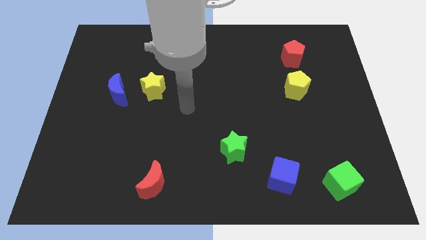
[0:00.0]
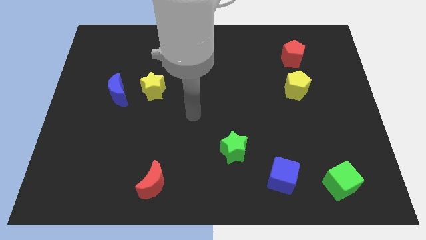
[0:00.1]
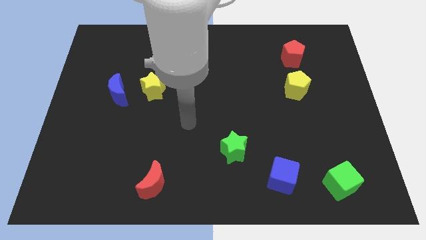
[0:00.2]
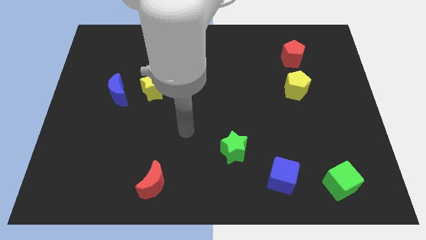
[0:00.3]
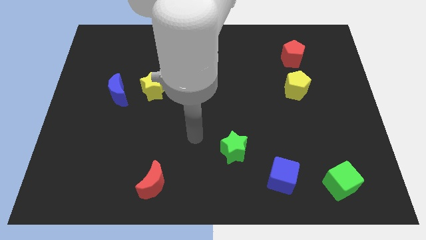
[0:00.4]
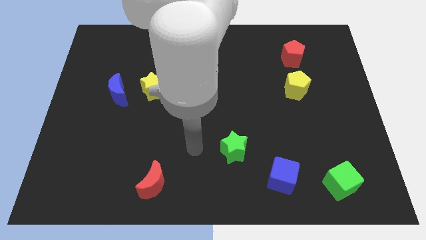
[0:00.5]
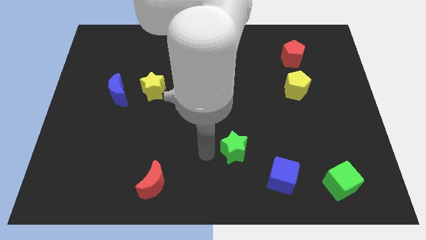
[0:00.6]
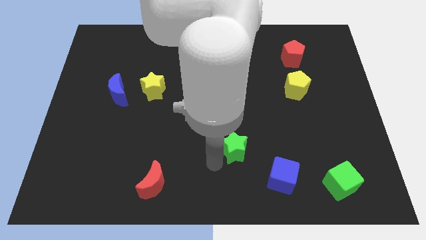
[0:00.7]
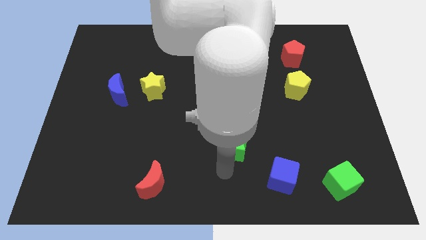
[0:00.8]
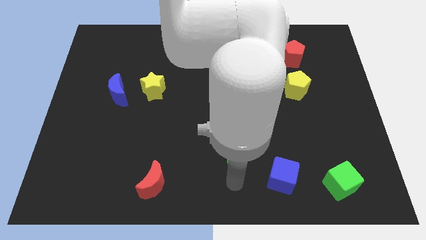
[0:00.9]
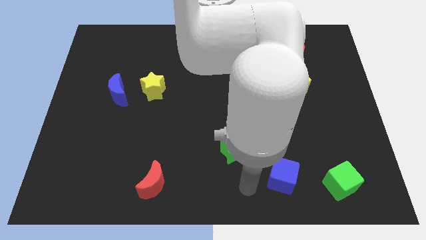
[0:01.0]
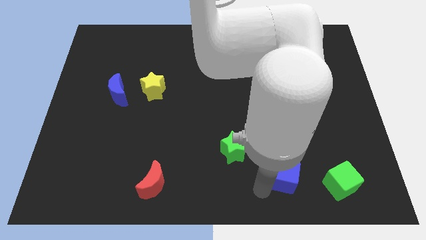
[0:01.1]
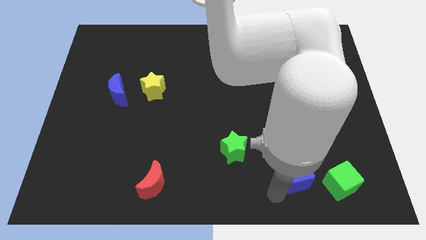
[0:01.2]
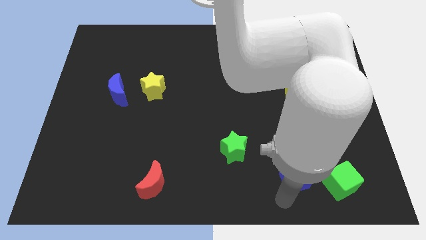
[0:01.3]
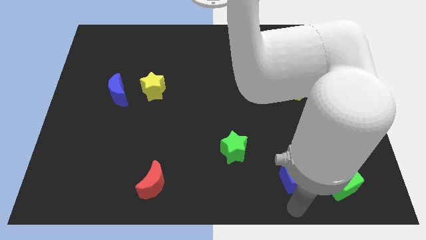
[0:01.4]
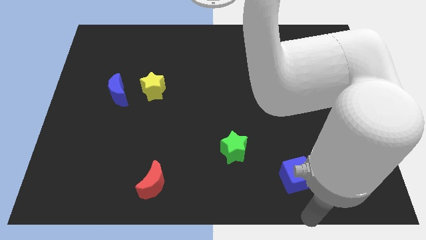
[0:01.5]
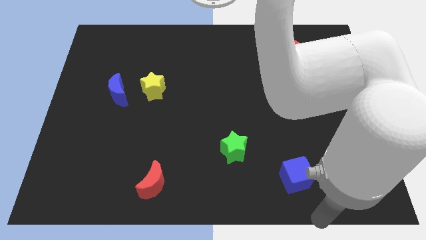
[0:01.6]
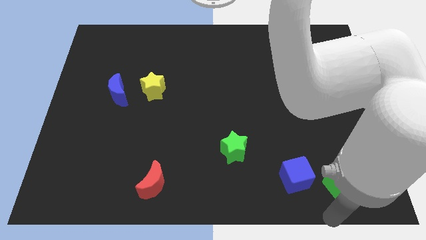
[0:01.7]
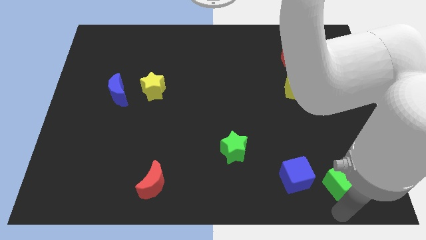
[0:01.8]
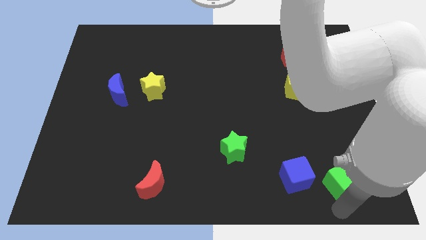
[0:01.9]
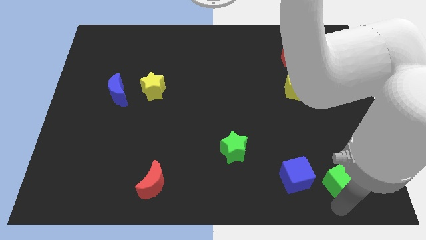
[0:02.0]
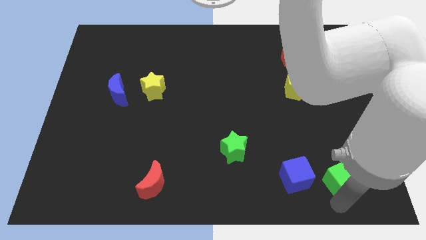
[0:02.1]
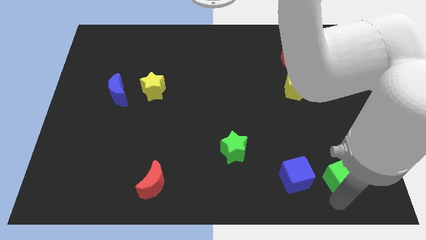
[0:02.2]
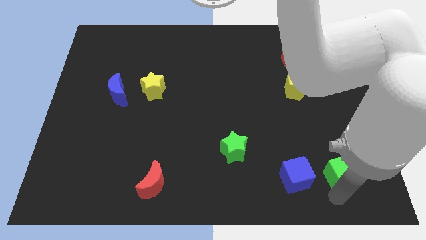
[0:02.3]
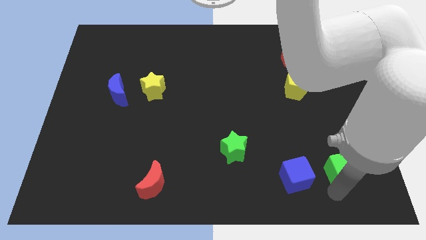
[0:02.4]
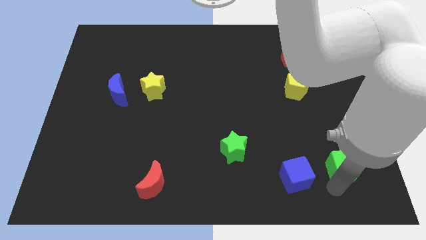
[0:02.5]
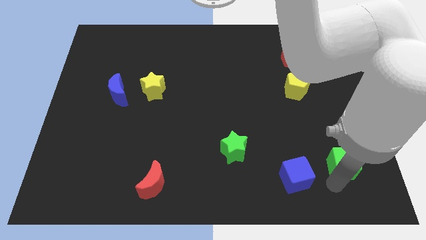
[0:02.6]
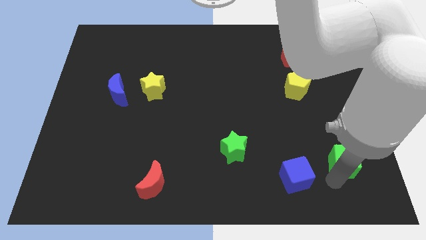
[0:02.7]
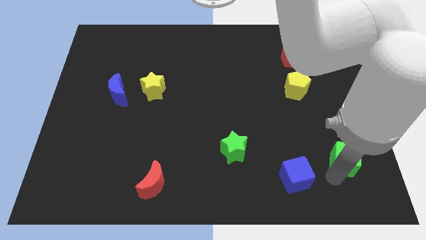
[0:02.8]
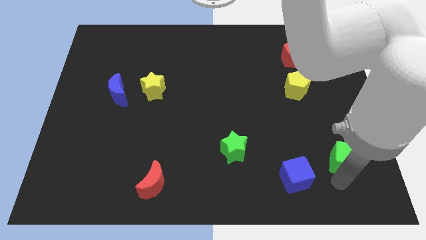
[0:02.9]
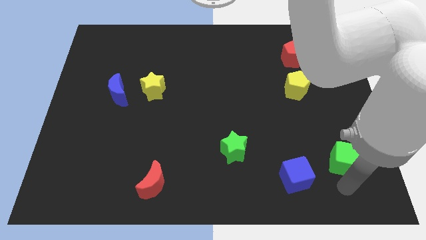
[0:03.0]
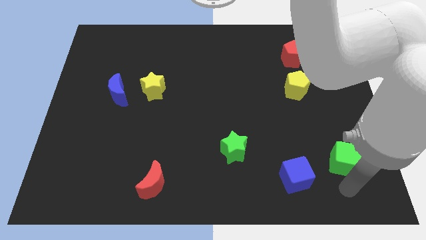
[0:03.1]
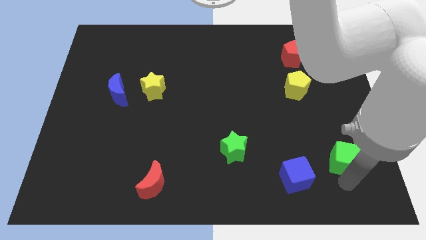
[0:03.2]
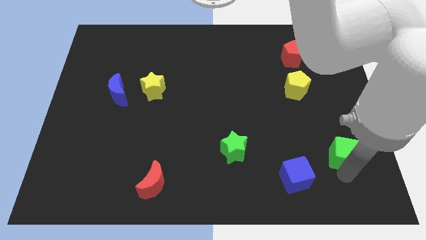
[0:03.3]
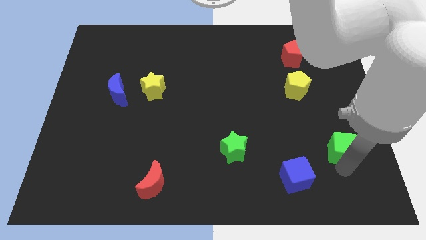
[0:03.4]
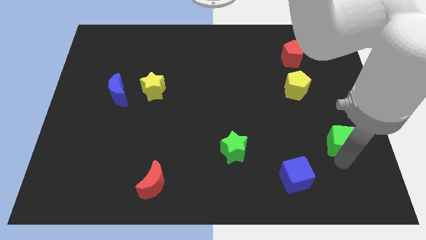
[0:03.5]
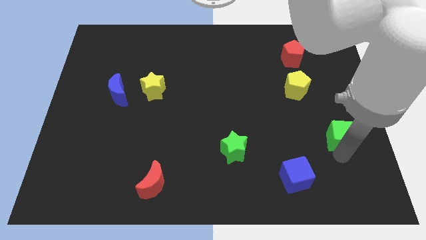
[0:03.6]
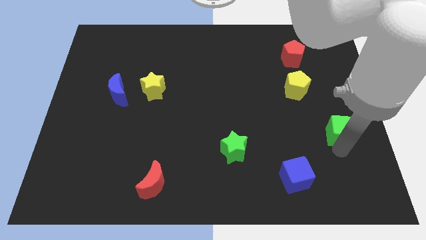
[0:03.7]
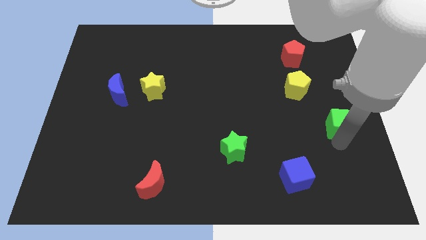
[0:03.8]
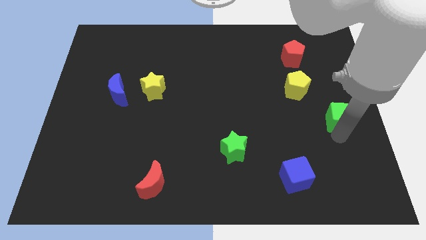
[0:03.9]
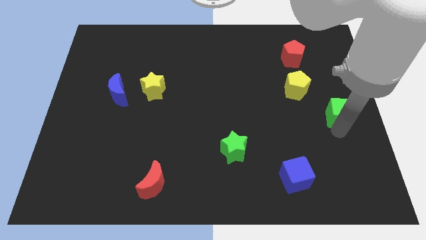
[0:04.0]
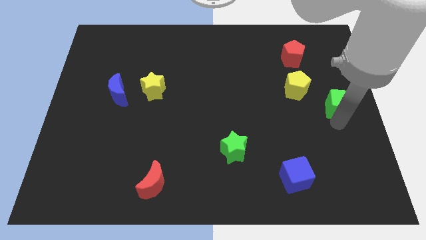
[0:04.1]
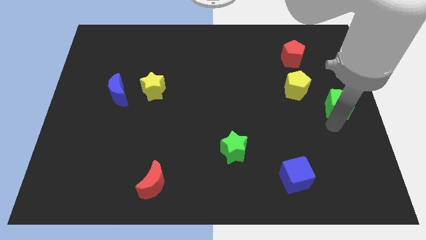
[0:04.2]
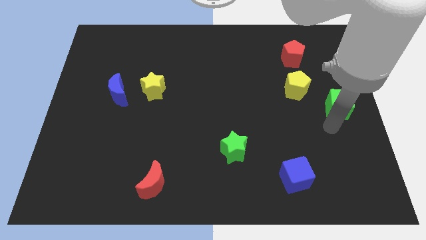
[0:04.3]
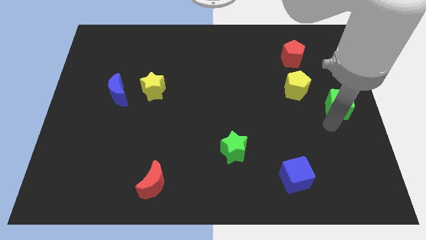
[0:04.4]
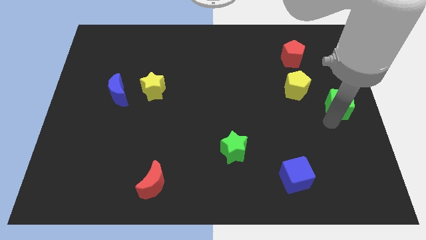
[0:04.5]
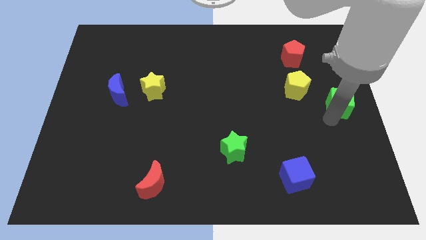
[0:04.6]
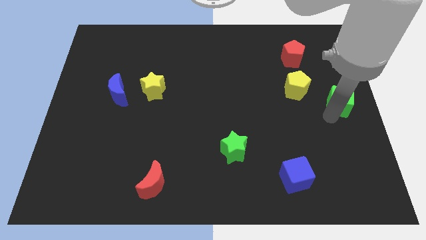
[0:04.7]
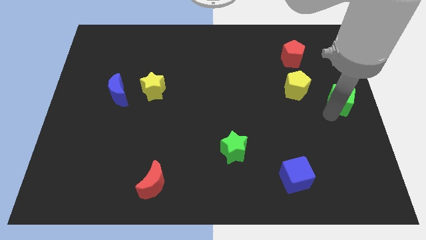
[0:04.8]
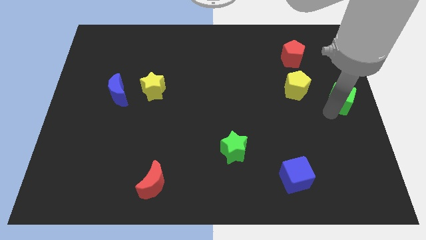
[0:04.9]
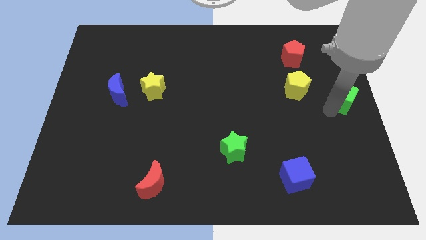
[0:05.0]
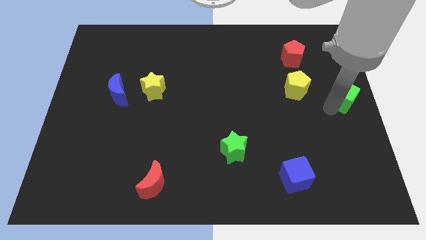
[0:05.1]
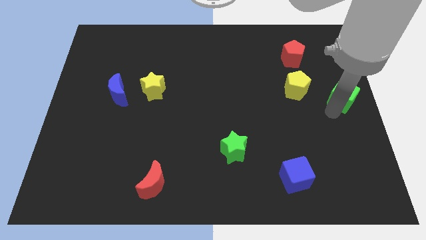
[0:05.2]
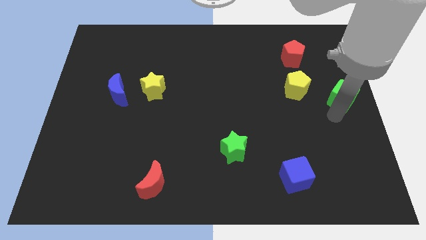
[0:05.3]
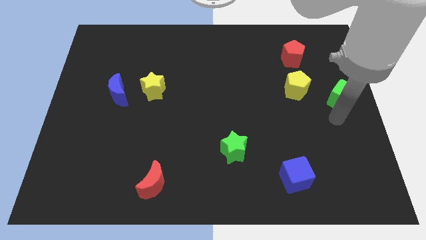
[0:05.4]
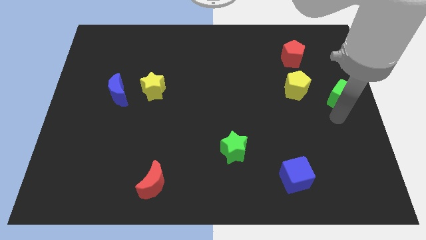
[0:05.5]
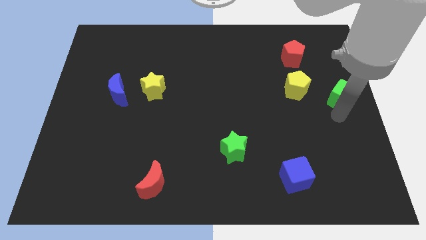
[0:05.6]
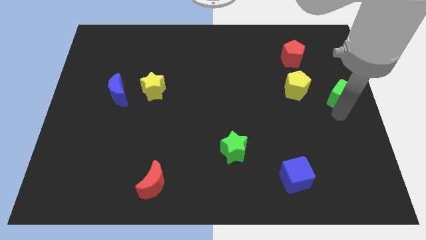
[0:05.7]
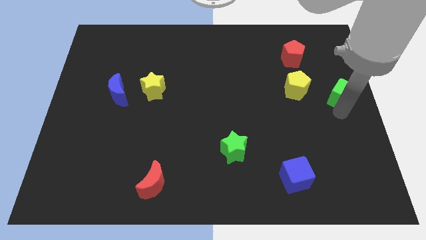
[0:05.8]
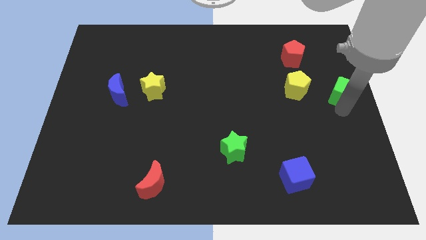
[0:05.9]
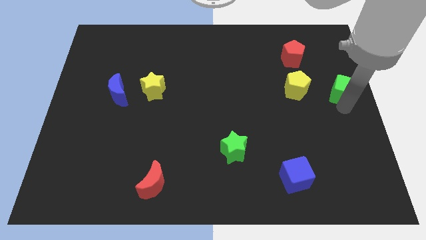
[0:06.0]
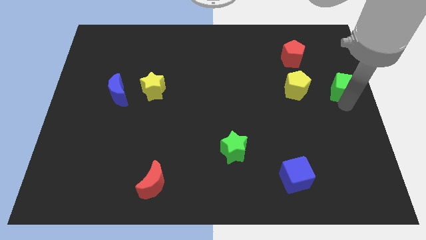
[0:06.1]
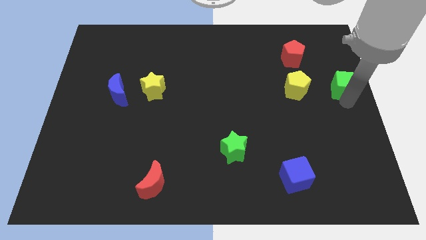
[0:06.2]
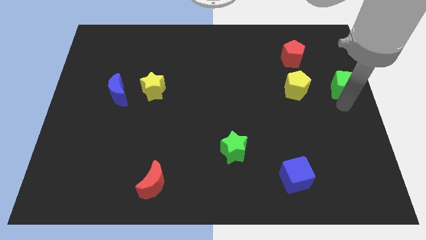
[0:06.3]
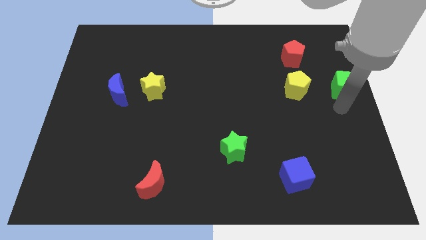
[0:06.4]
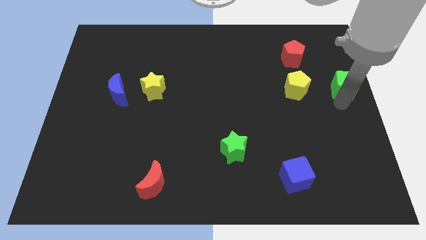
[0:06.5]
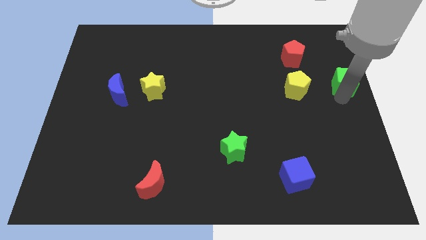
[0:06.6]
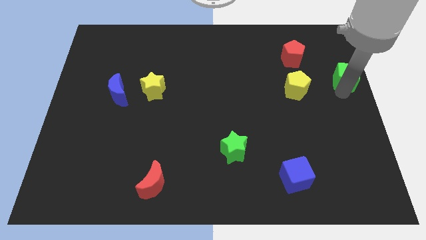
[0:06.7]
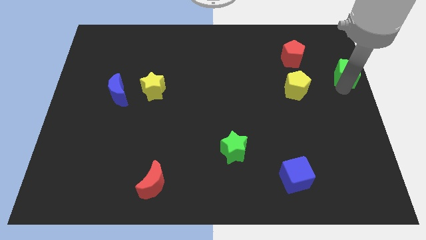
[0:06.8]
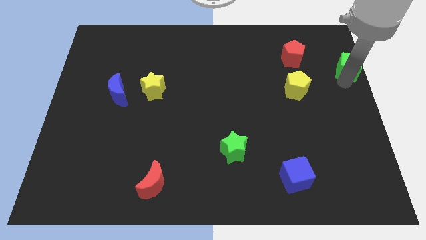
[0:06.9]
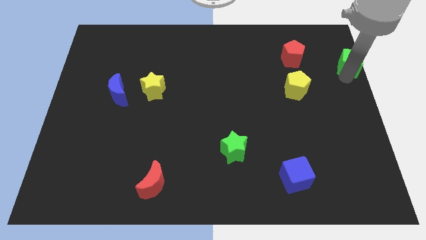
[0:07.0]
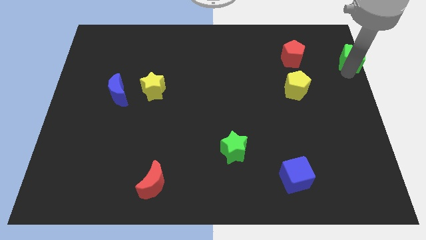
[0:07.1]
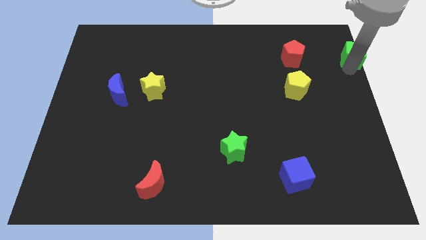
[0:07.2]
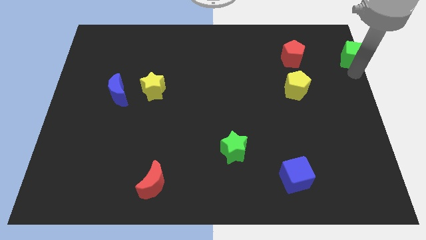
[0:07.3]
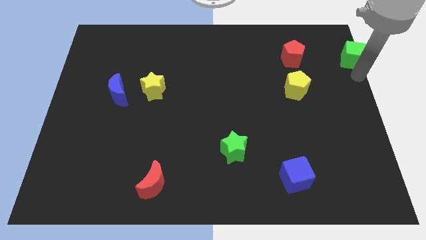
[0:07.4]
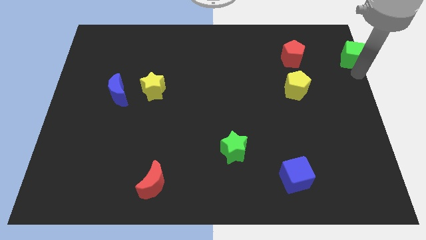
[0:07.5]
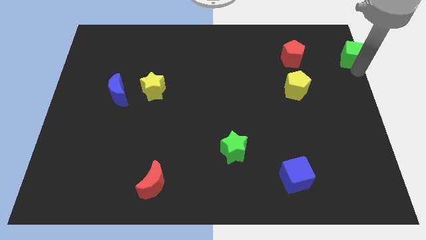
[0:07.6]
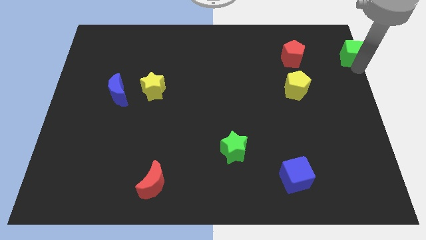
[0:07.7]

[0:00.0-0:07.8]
move the green cube to the upper right corner

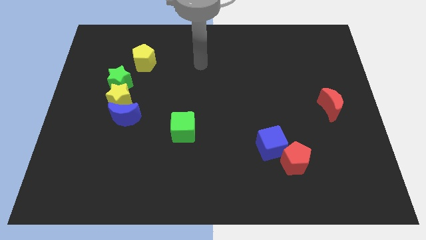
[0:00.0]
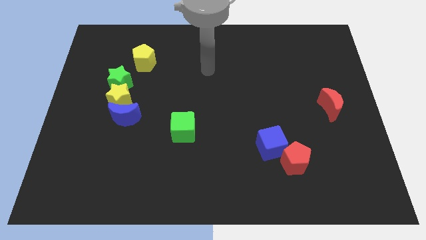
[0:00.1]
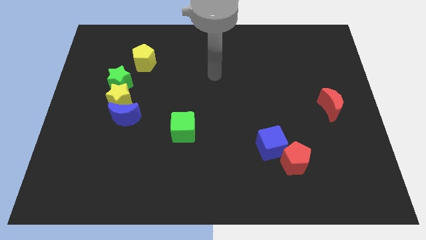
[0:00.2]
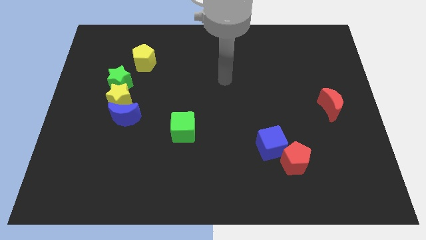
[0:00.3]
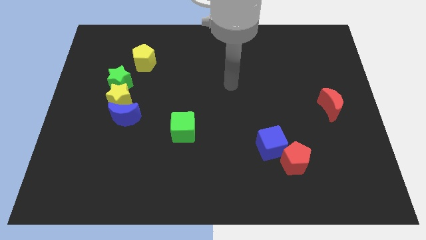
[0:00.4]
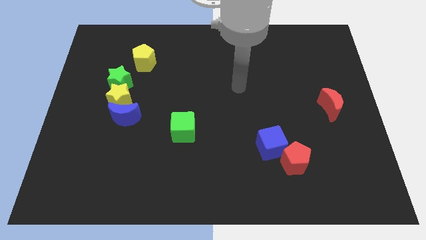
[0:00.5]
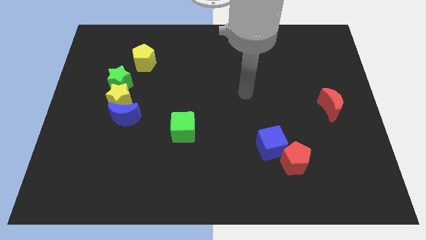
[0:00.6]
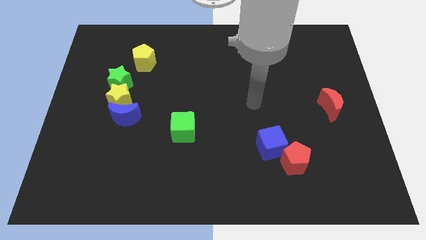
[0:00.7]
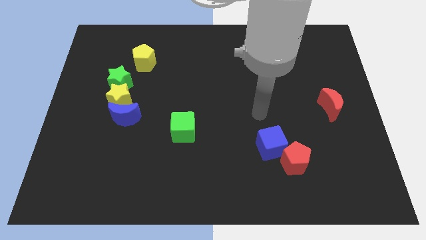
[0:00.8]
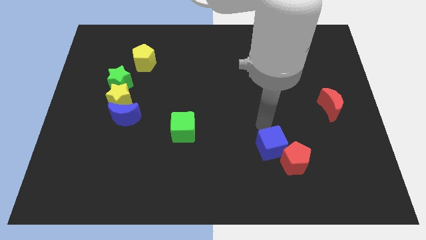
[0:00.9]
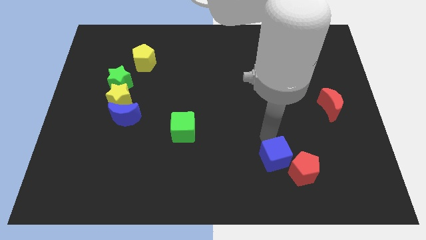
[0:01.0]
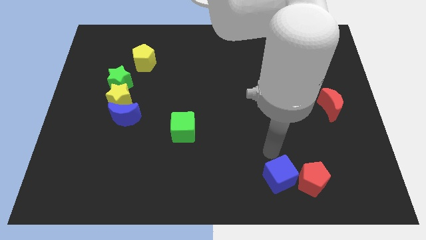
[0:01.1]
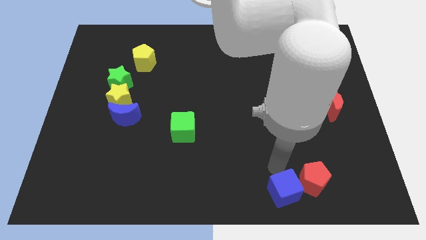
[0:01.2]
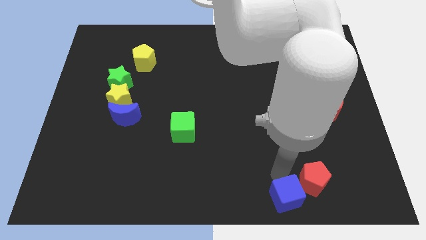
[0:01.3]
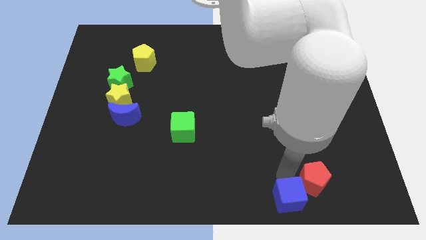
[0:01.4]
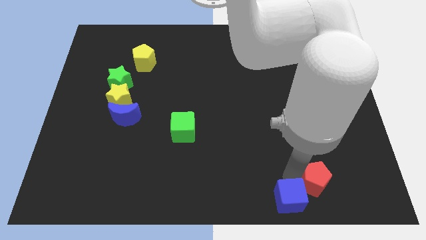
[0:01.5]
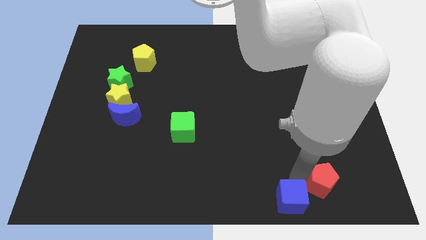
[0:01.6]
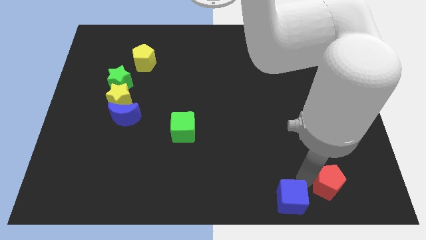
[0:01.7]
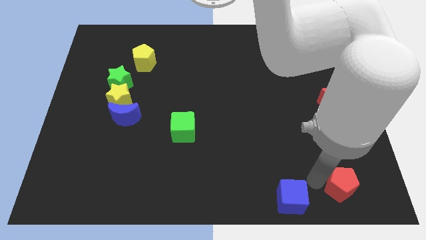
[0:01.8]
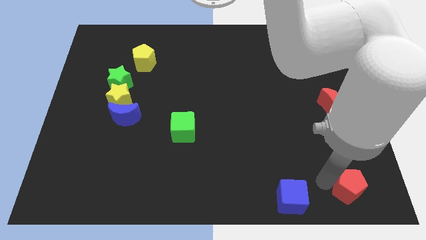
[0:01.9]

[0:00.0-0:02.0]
move the red pentagon to the lower right corner
